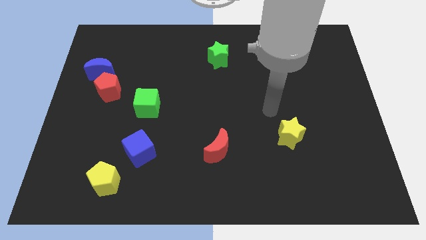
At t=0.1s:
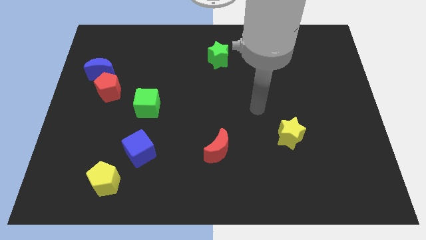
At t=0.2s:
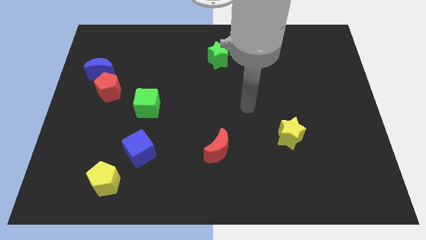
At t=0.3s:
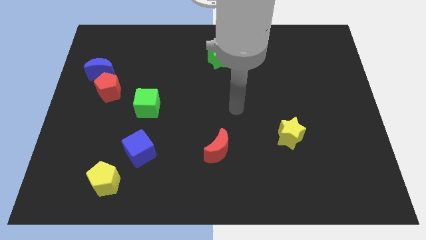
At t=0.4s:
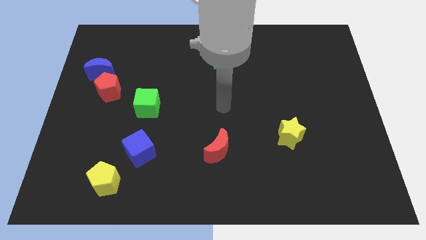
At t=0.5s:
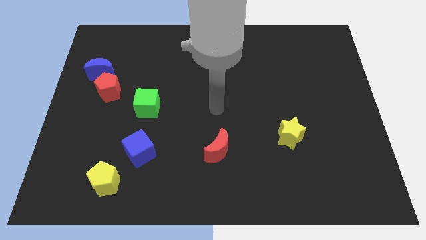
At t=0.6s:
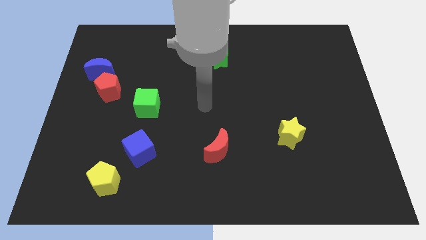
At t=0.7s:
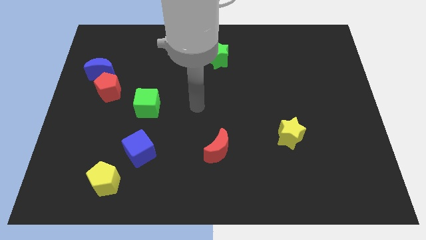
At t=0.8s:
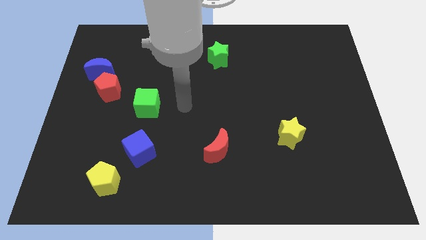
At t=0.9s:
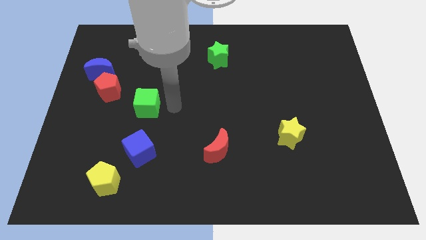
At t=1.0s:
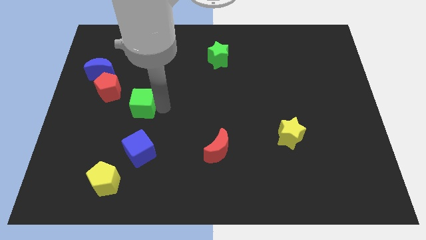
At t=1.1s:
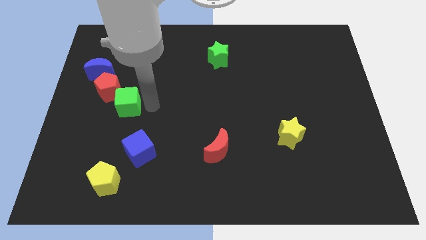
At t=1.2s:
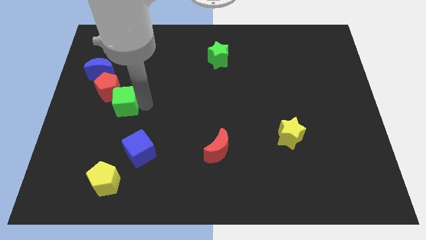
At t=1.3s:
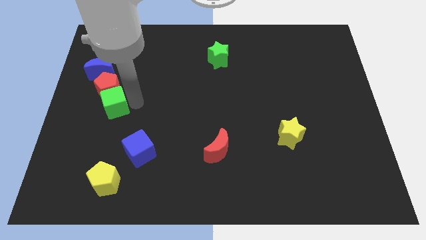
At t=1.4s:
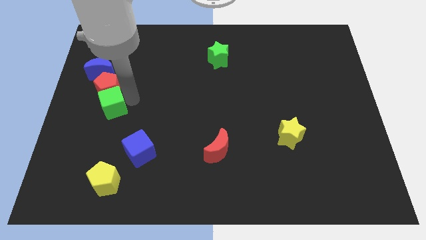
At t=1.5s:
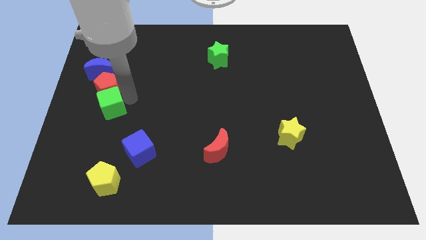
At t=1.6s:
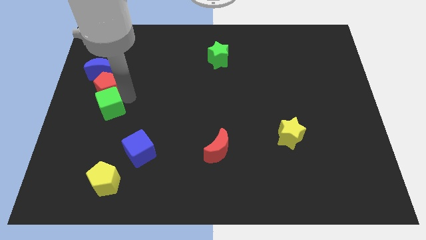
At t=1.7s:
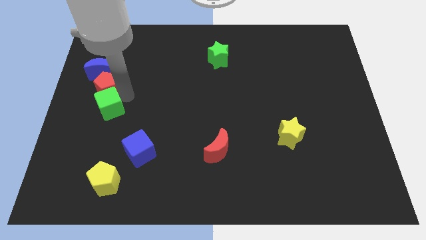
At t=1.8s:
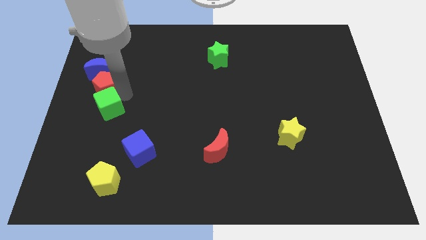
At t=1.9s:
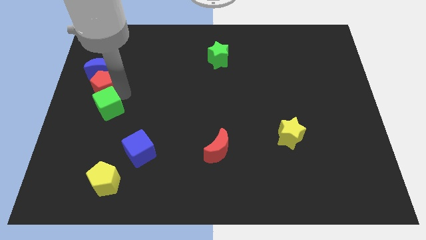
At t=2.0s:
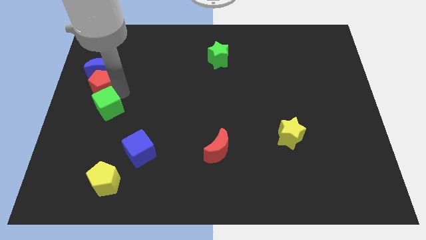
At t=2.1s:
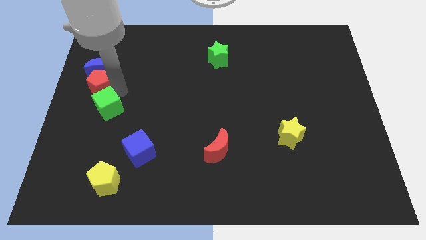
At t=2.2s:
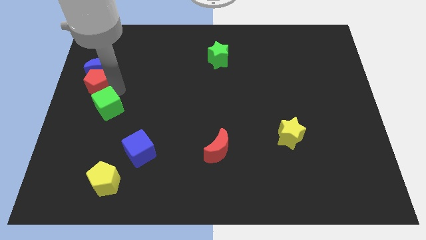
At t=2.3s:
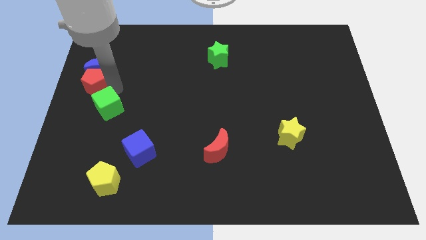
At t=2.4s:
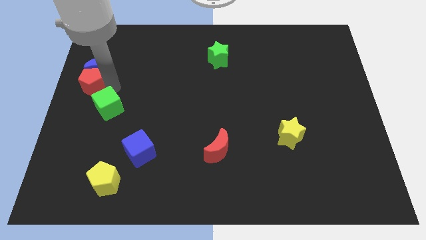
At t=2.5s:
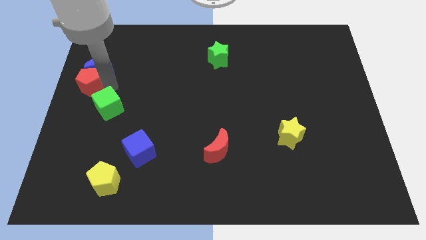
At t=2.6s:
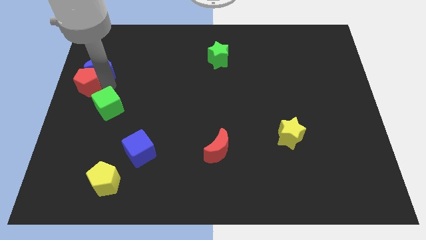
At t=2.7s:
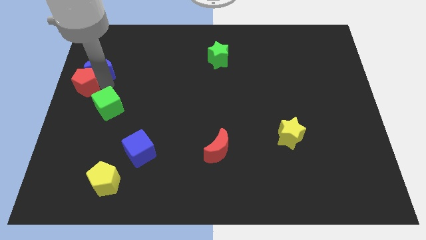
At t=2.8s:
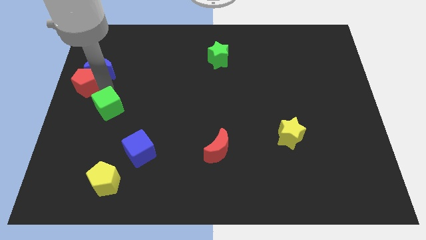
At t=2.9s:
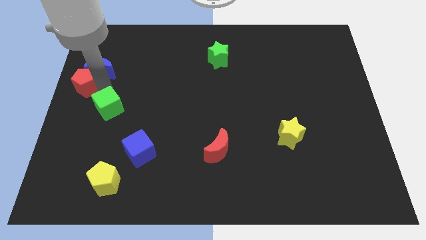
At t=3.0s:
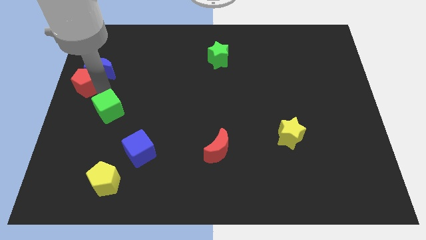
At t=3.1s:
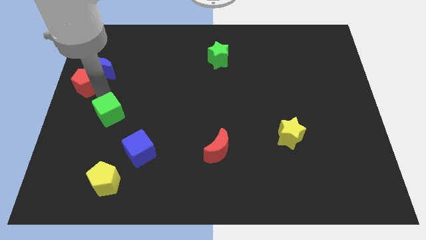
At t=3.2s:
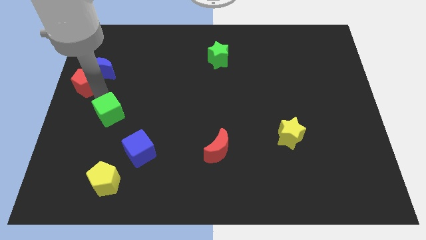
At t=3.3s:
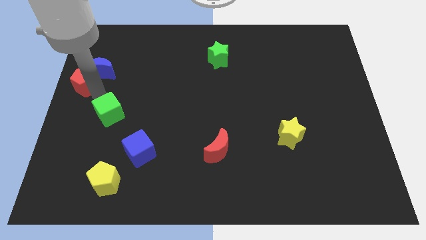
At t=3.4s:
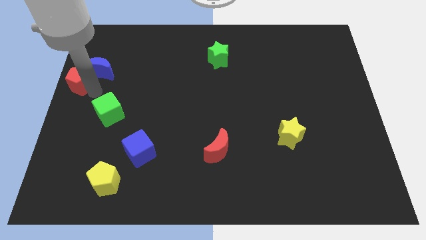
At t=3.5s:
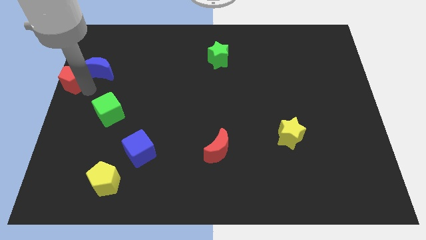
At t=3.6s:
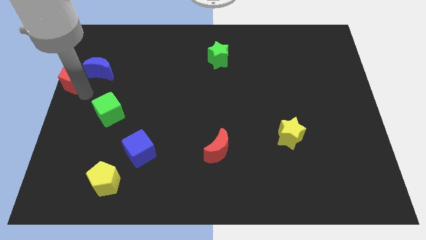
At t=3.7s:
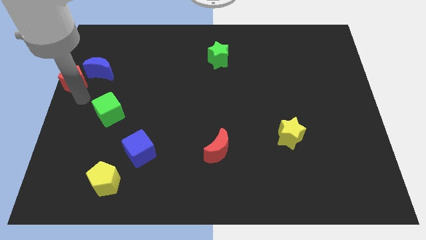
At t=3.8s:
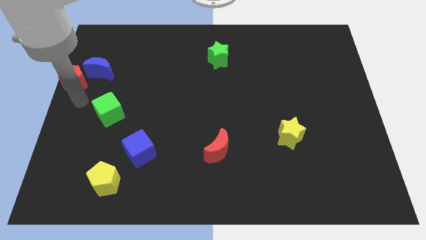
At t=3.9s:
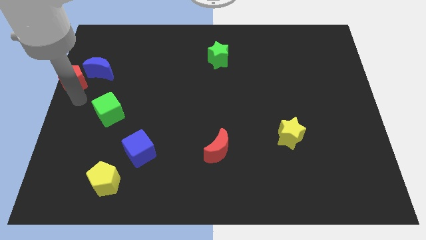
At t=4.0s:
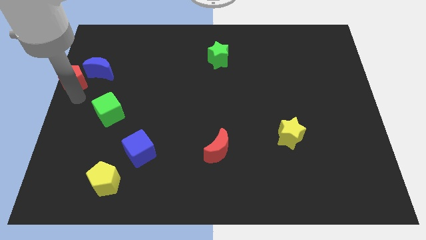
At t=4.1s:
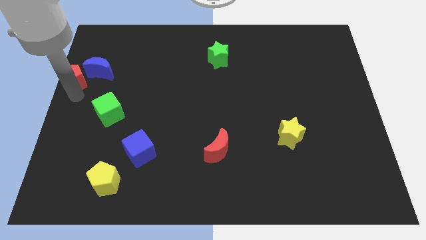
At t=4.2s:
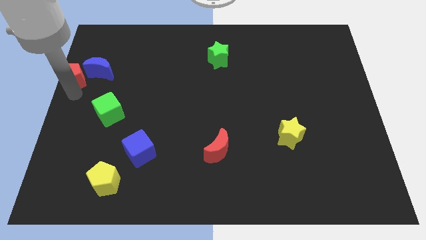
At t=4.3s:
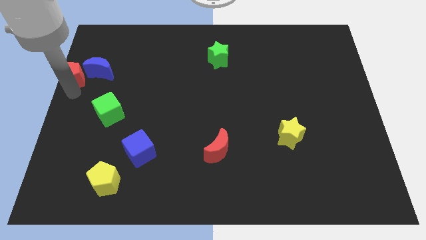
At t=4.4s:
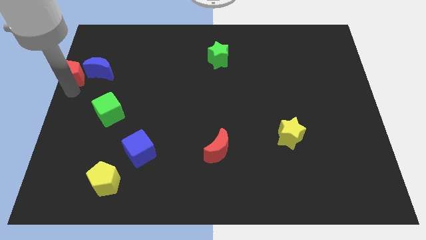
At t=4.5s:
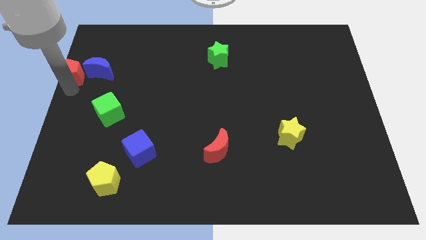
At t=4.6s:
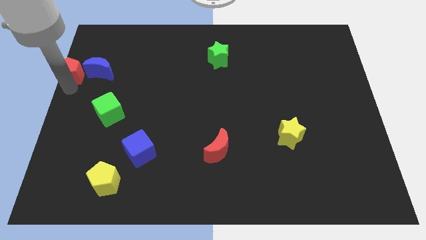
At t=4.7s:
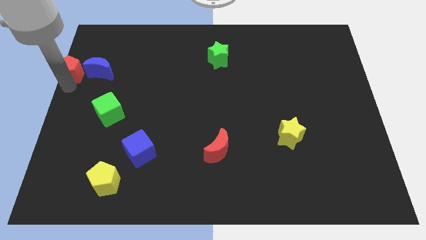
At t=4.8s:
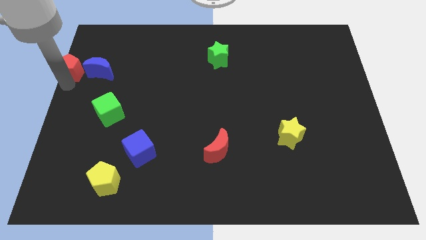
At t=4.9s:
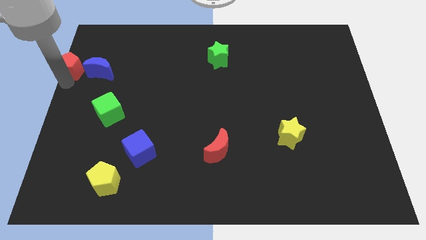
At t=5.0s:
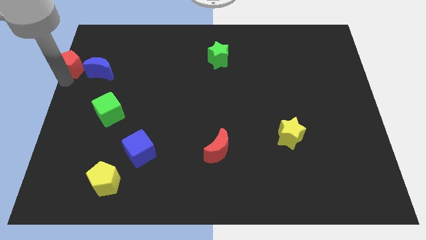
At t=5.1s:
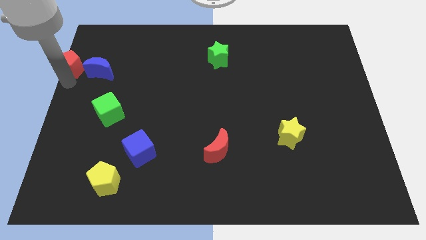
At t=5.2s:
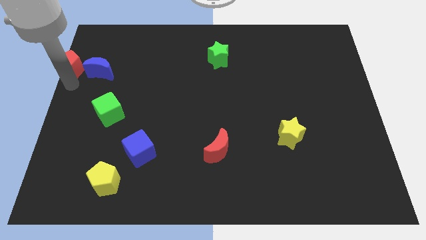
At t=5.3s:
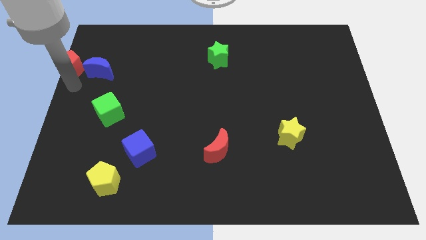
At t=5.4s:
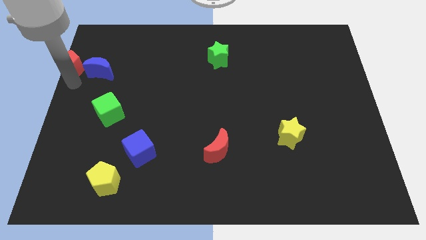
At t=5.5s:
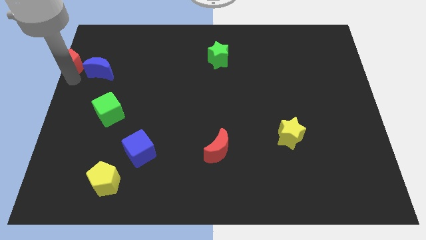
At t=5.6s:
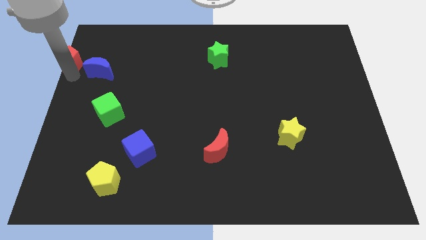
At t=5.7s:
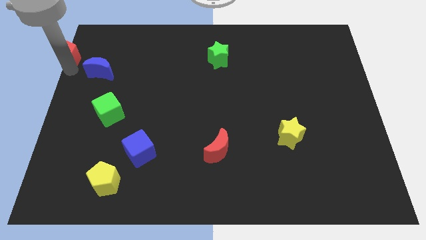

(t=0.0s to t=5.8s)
slide the red pentagon to the top left corner

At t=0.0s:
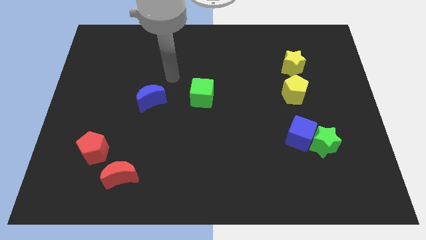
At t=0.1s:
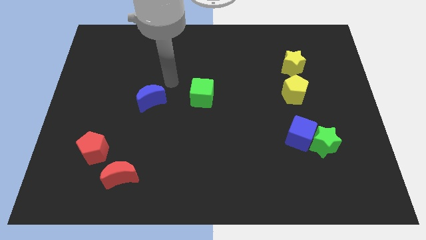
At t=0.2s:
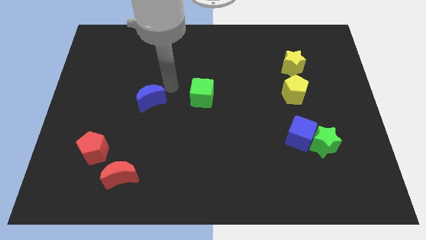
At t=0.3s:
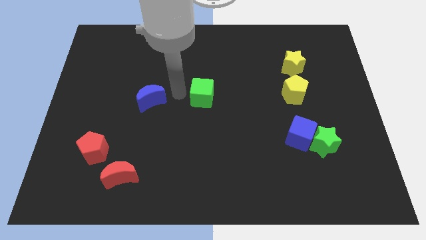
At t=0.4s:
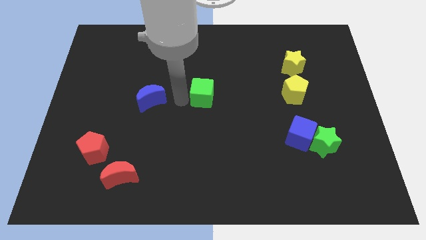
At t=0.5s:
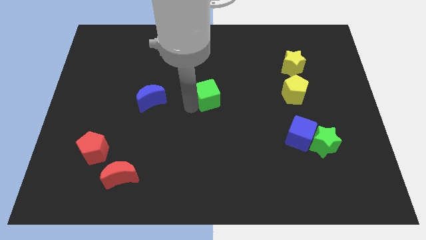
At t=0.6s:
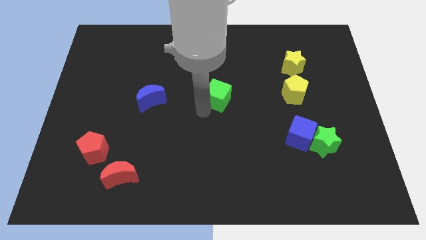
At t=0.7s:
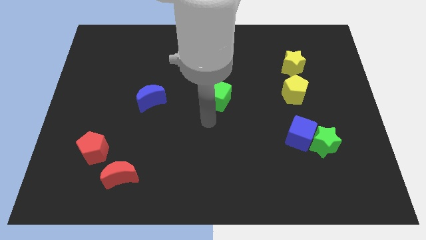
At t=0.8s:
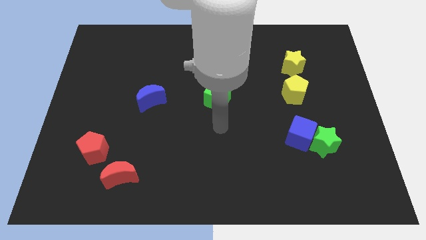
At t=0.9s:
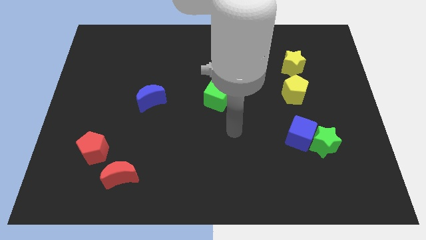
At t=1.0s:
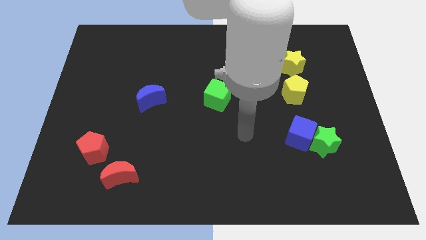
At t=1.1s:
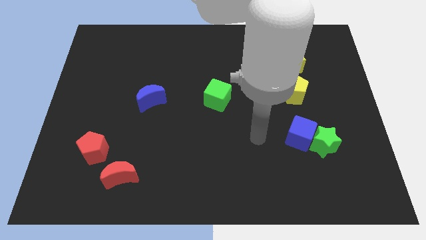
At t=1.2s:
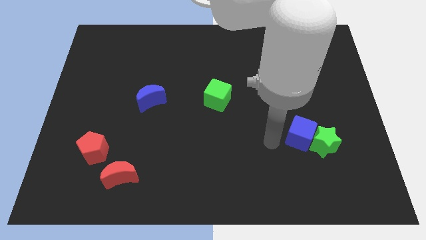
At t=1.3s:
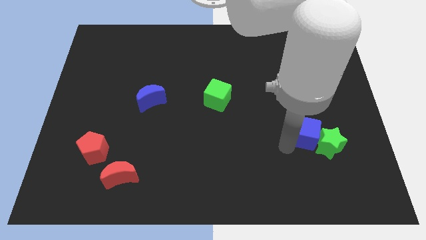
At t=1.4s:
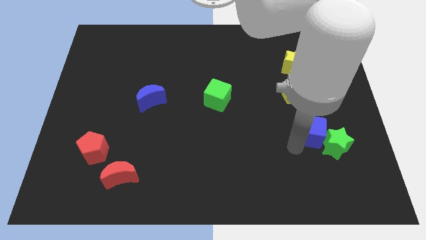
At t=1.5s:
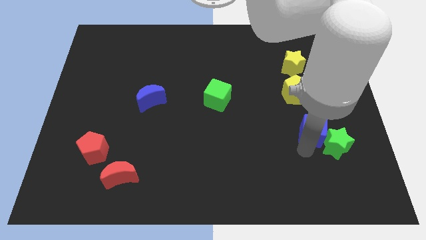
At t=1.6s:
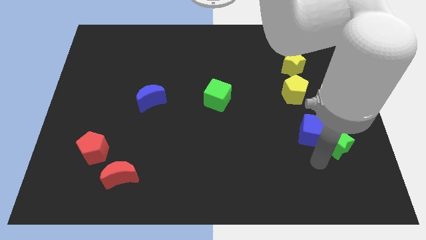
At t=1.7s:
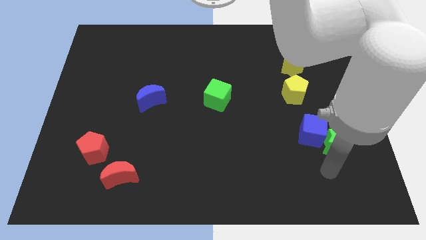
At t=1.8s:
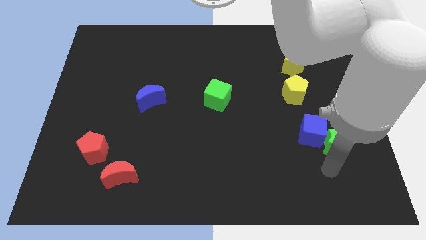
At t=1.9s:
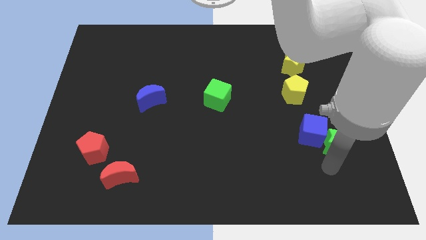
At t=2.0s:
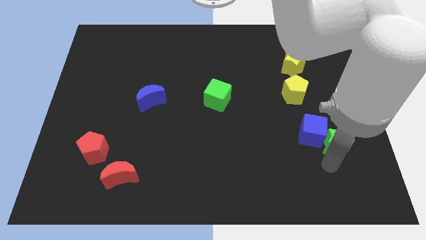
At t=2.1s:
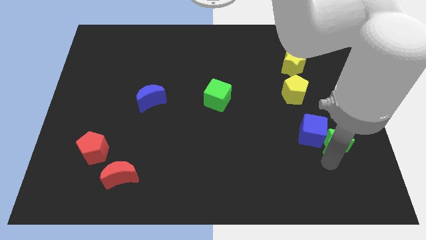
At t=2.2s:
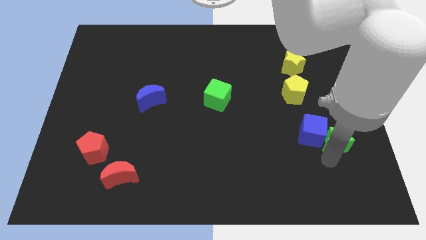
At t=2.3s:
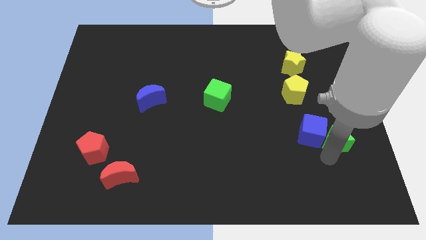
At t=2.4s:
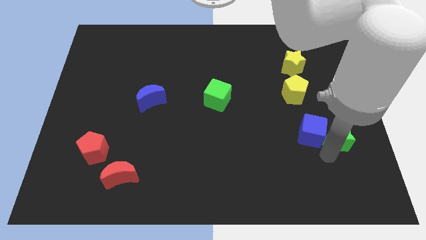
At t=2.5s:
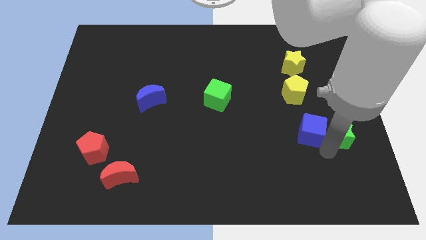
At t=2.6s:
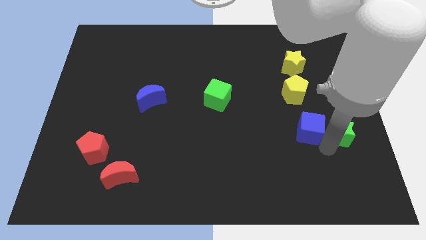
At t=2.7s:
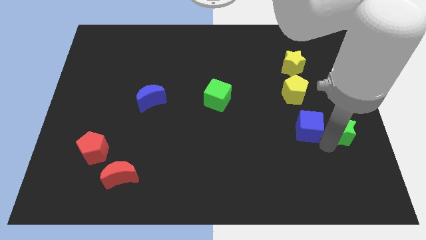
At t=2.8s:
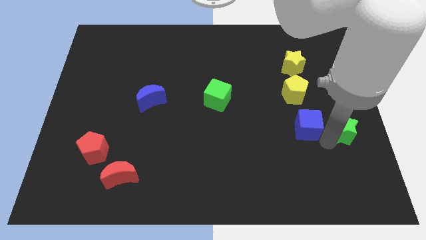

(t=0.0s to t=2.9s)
slide the green star to the center right
